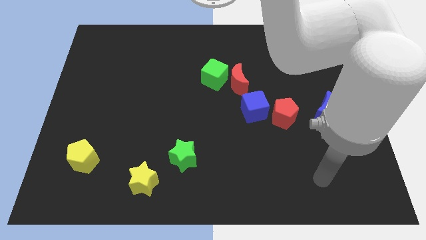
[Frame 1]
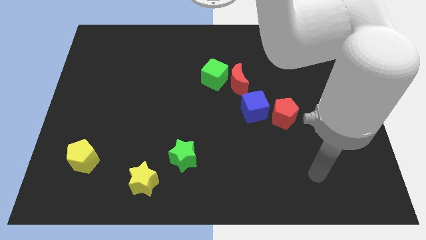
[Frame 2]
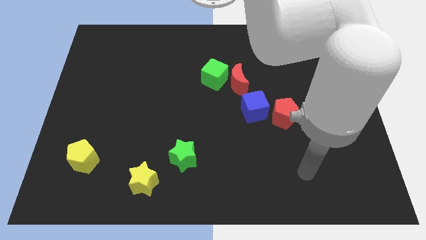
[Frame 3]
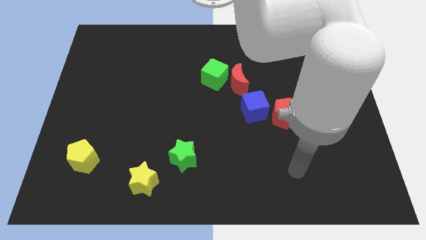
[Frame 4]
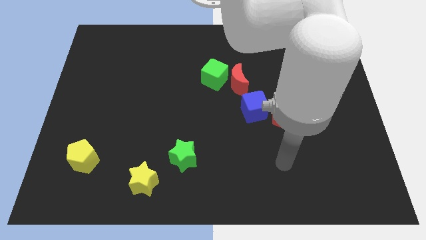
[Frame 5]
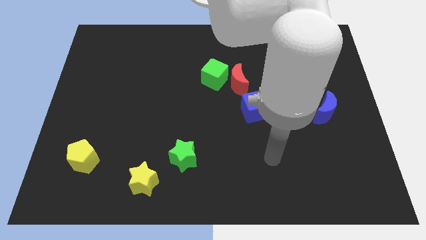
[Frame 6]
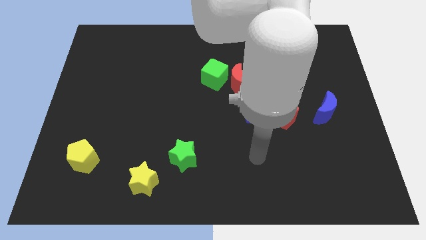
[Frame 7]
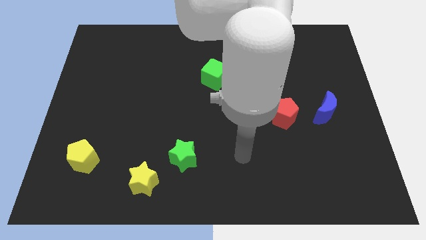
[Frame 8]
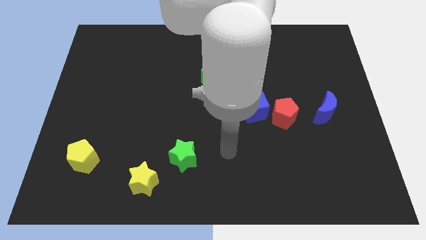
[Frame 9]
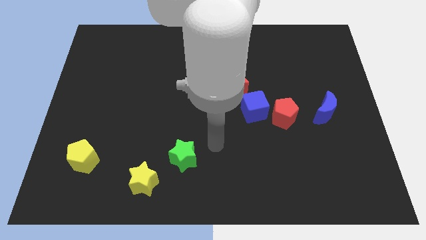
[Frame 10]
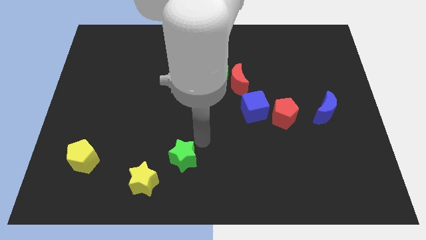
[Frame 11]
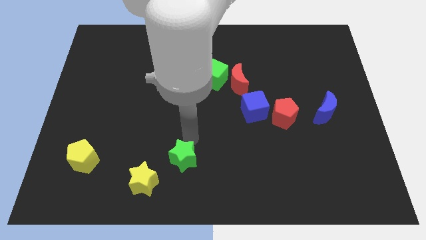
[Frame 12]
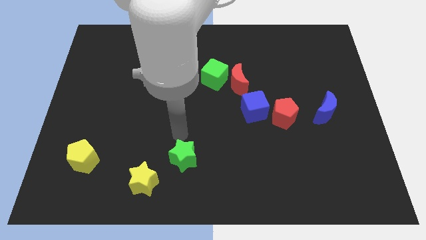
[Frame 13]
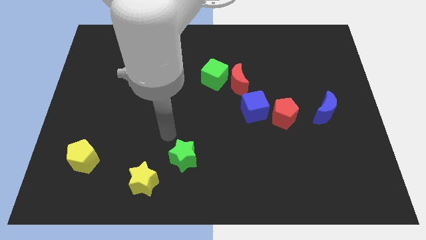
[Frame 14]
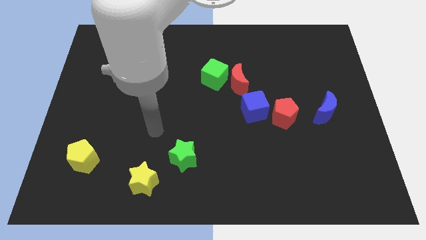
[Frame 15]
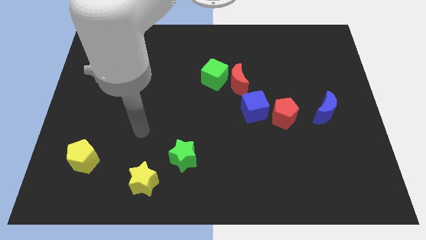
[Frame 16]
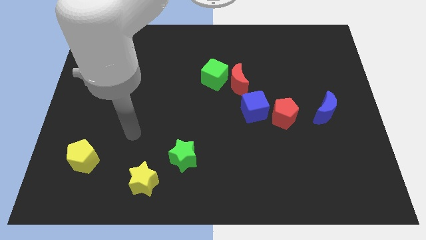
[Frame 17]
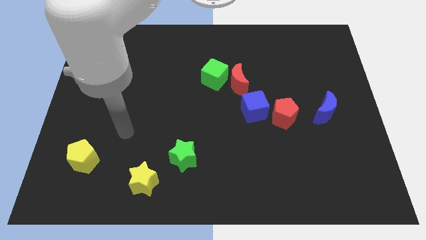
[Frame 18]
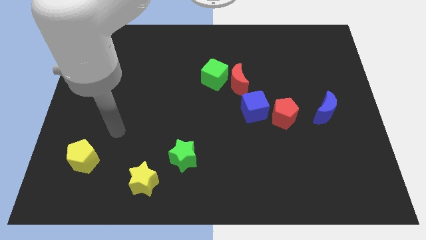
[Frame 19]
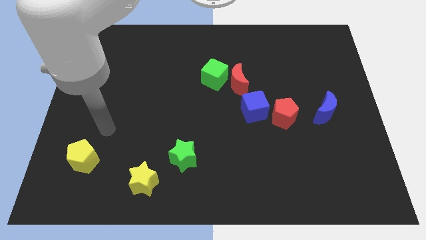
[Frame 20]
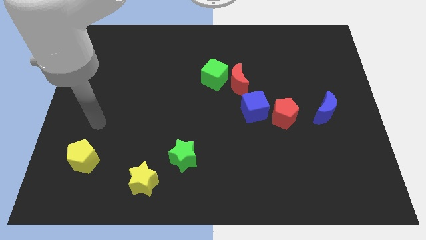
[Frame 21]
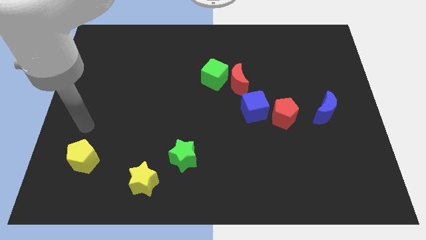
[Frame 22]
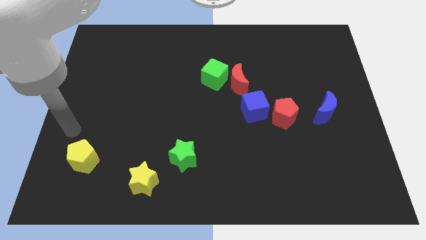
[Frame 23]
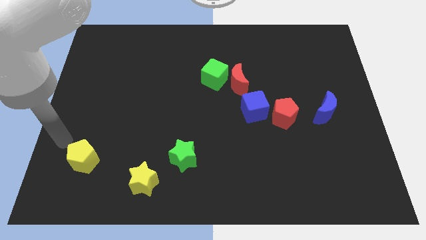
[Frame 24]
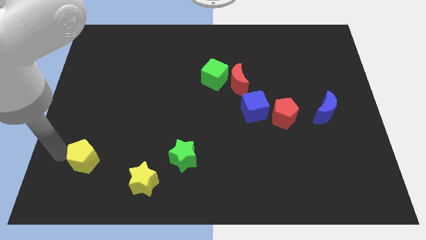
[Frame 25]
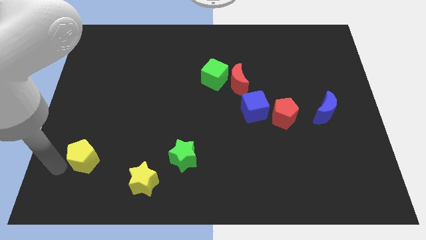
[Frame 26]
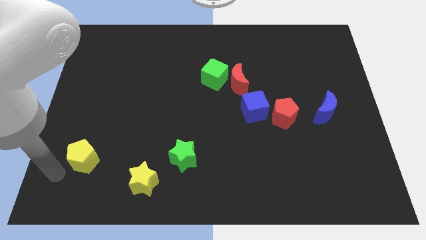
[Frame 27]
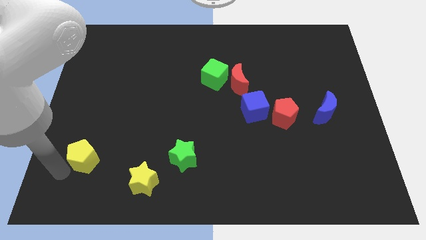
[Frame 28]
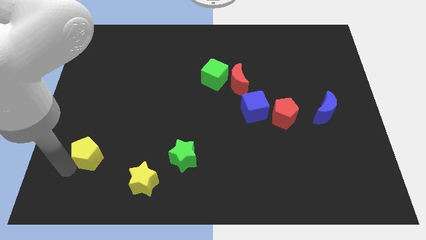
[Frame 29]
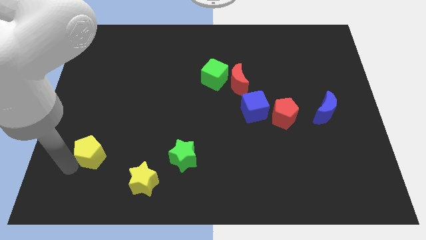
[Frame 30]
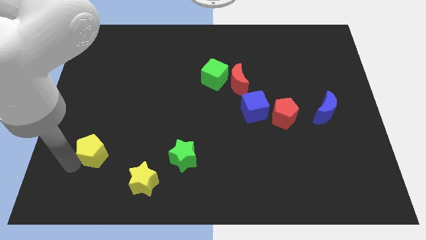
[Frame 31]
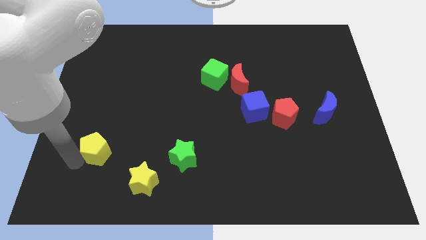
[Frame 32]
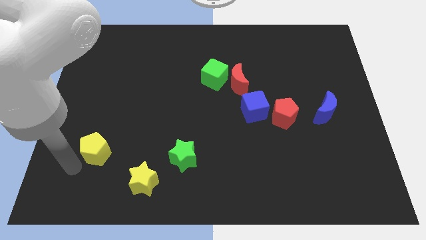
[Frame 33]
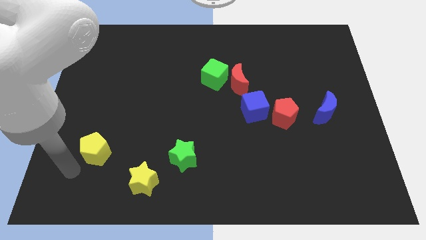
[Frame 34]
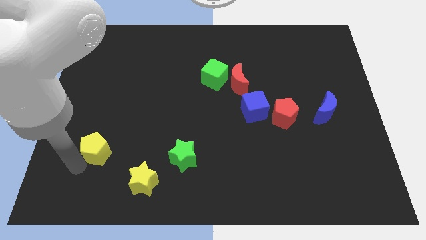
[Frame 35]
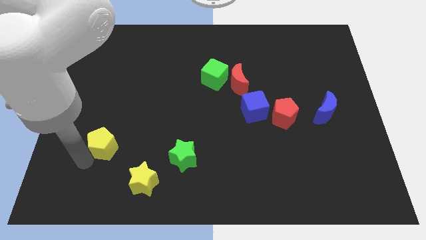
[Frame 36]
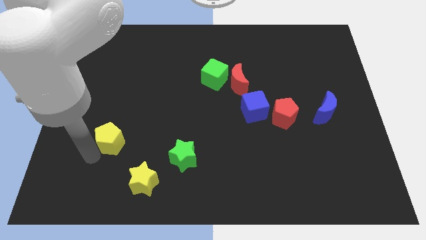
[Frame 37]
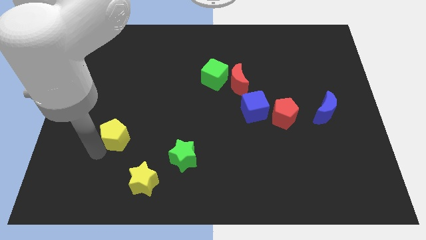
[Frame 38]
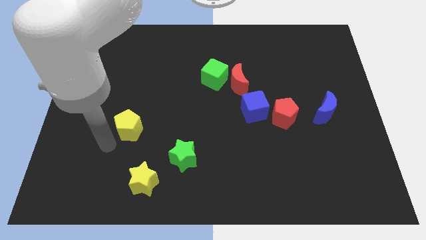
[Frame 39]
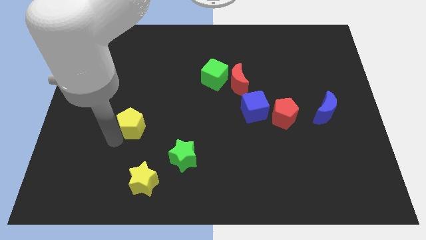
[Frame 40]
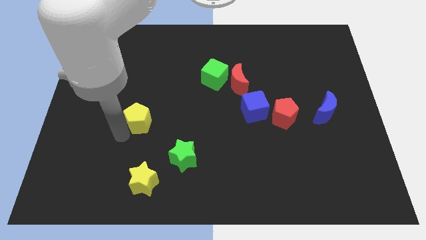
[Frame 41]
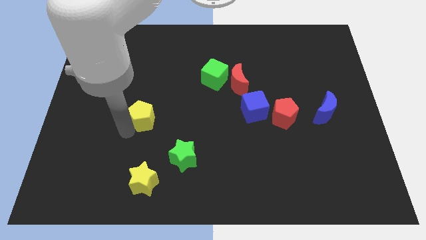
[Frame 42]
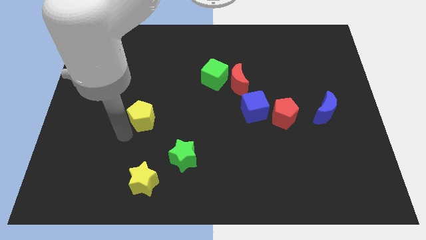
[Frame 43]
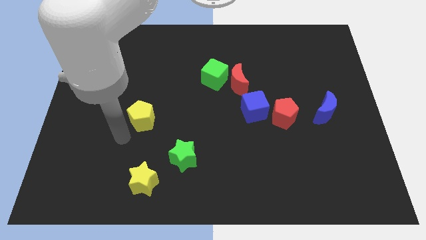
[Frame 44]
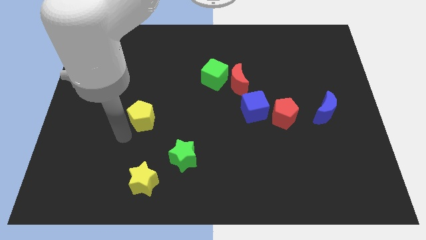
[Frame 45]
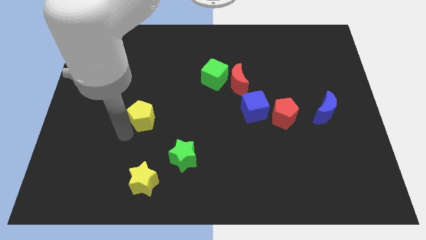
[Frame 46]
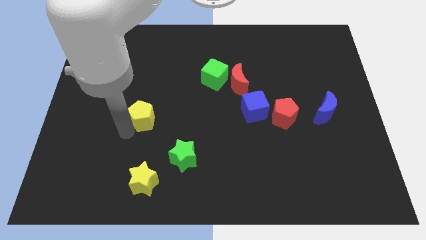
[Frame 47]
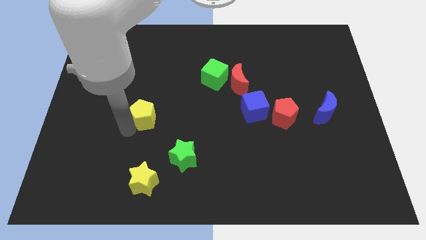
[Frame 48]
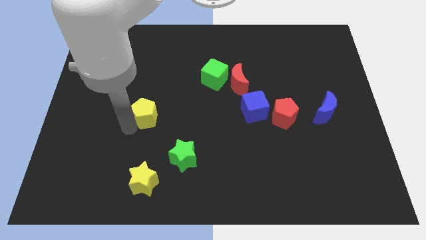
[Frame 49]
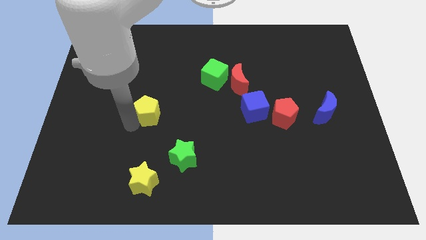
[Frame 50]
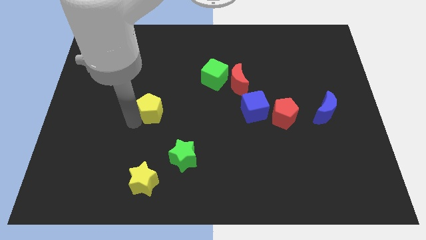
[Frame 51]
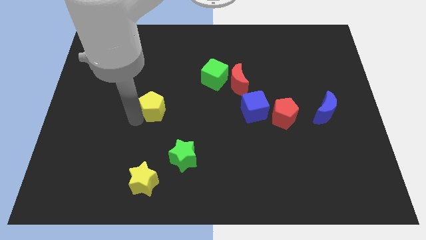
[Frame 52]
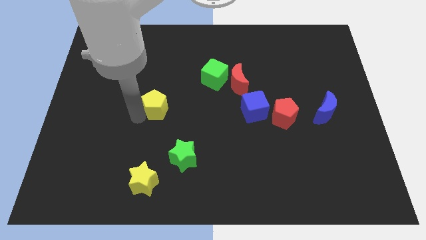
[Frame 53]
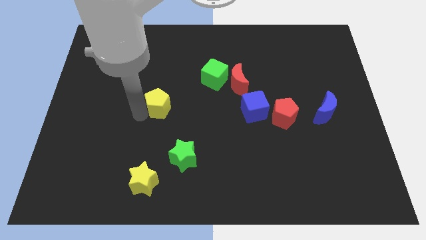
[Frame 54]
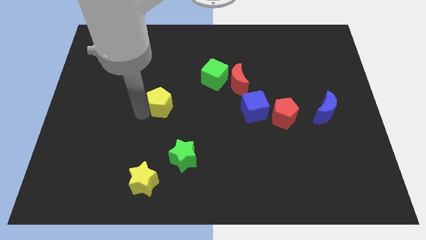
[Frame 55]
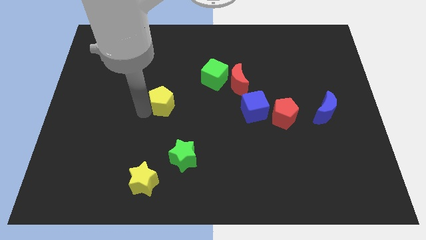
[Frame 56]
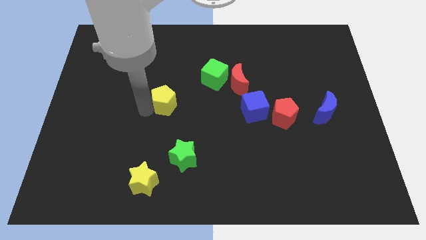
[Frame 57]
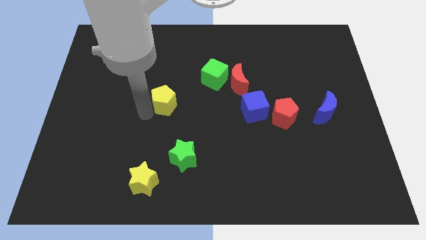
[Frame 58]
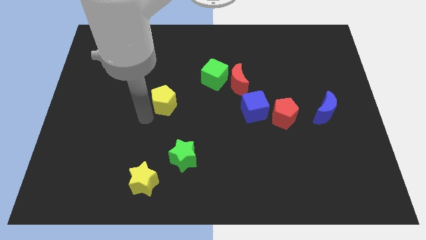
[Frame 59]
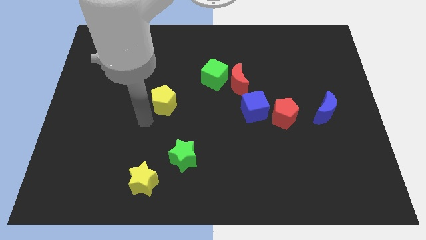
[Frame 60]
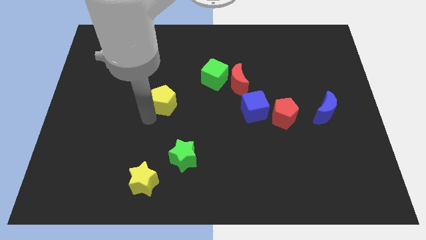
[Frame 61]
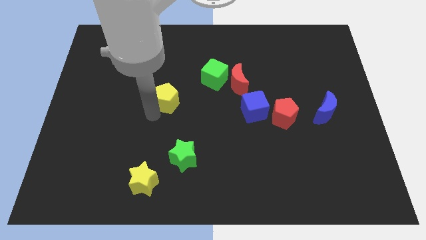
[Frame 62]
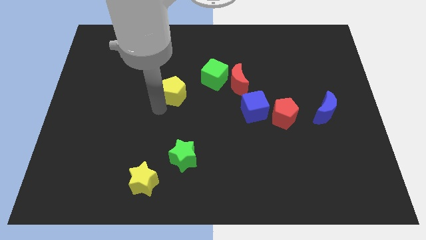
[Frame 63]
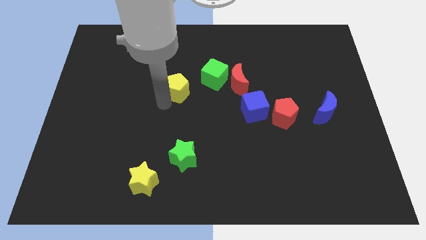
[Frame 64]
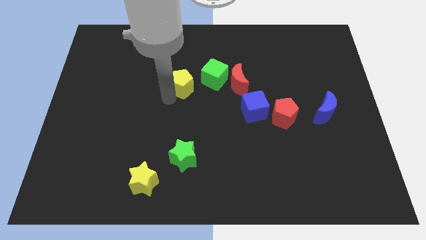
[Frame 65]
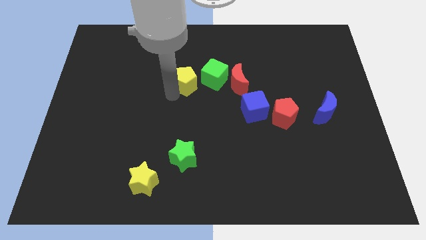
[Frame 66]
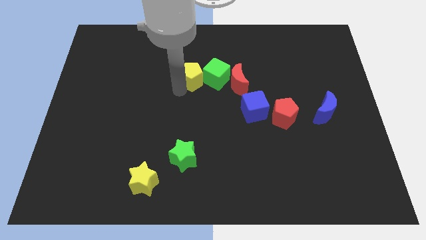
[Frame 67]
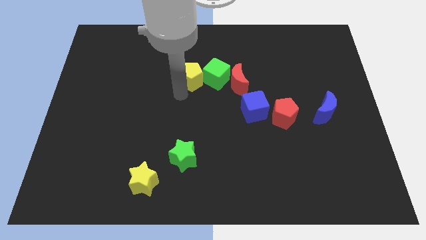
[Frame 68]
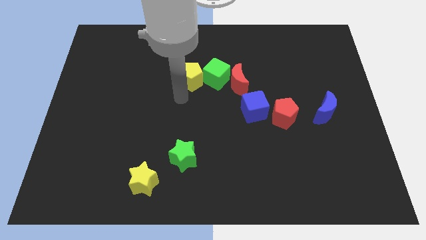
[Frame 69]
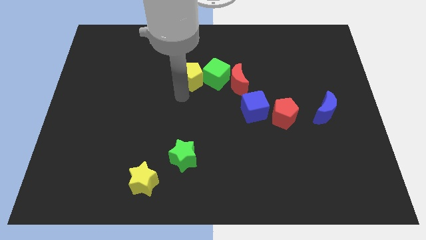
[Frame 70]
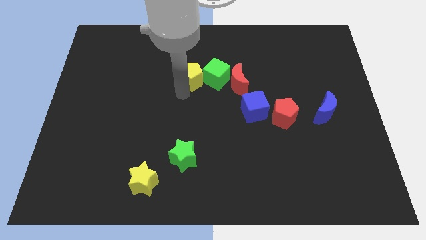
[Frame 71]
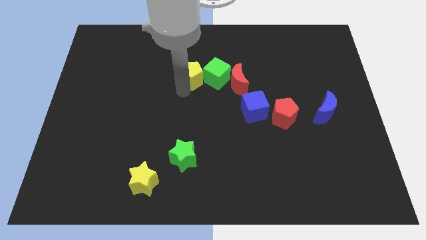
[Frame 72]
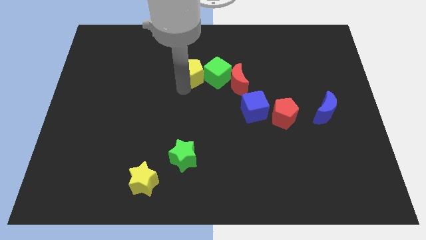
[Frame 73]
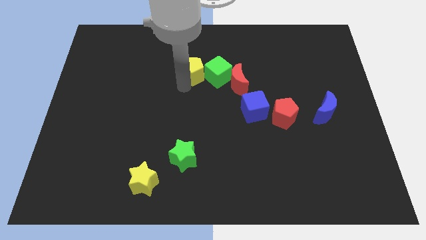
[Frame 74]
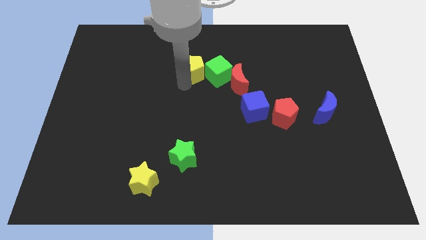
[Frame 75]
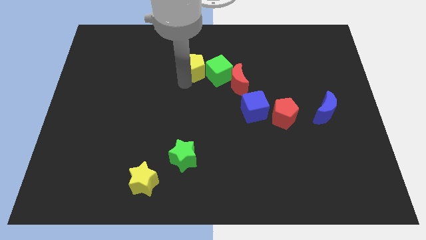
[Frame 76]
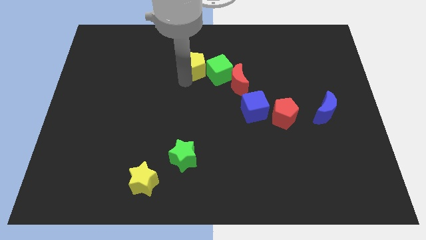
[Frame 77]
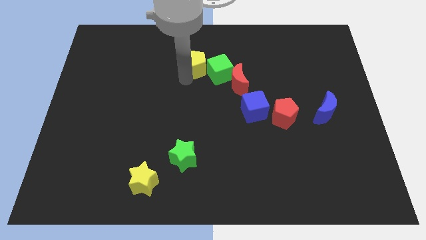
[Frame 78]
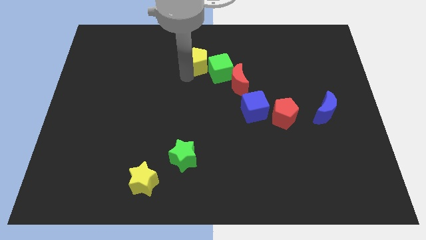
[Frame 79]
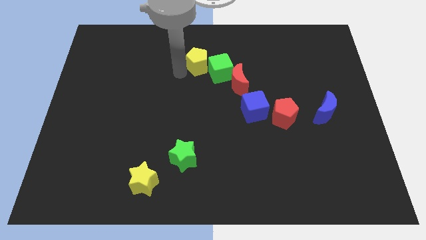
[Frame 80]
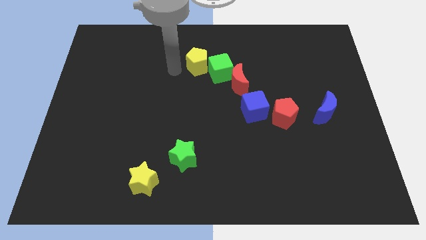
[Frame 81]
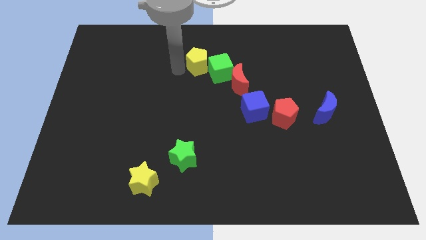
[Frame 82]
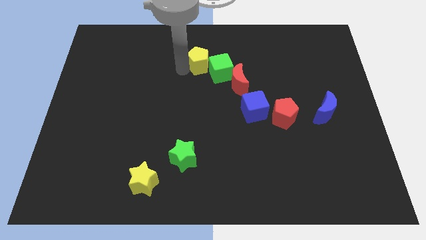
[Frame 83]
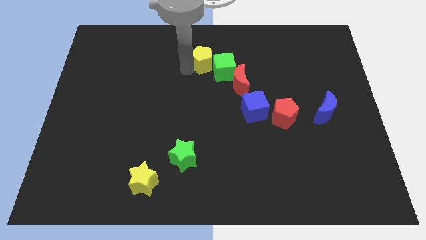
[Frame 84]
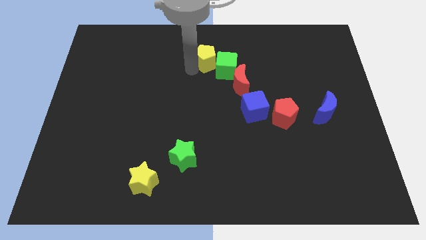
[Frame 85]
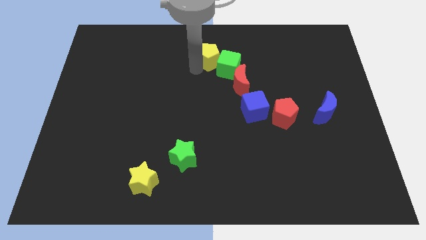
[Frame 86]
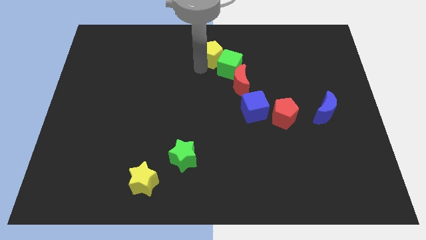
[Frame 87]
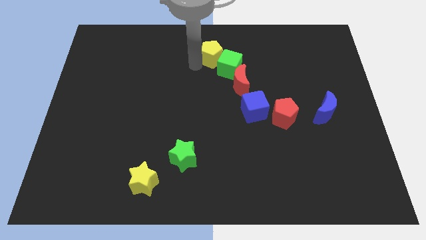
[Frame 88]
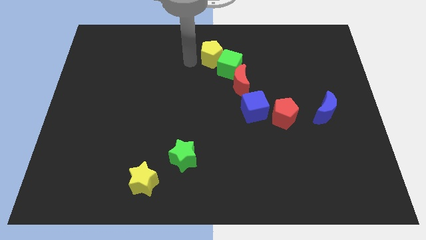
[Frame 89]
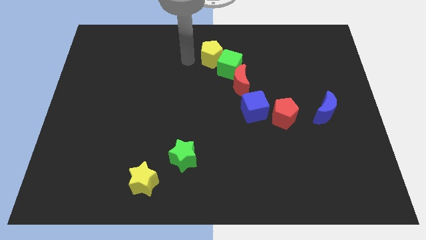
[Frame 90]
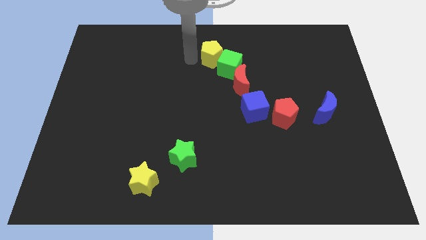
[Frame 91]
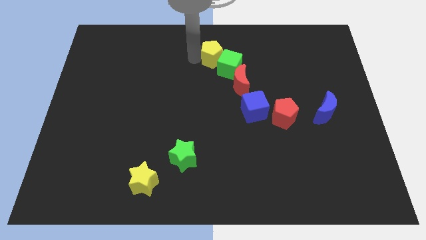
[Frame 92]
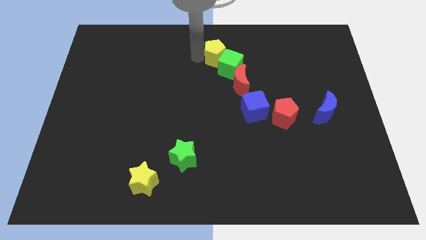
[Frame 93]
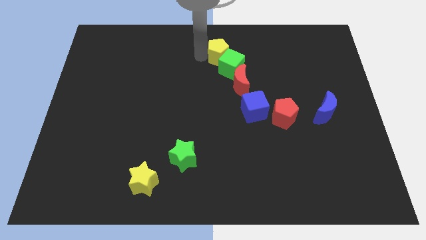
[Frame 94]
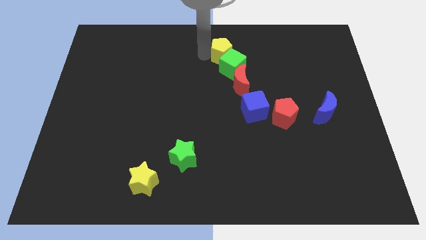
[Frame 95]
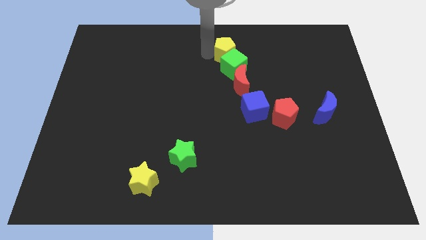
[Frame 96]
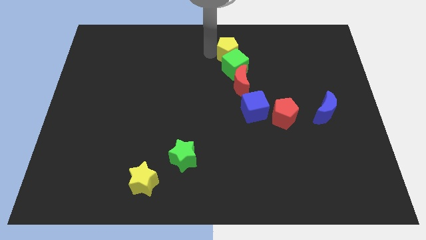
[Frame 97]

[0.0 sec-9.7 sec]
put the yellow pentagon to the top right of the green cube
